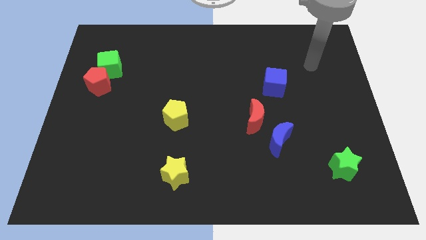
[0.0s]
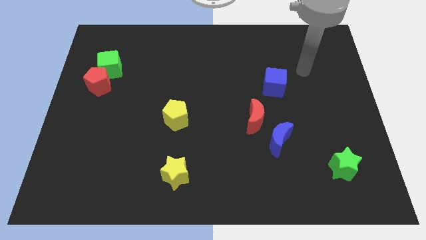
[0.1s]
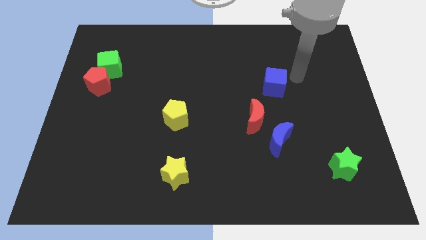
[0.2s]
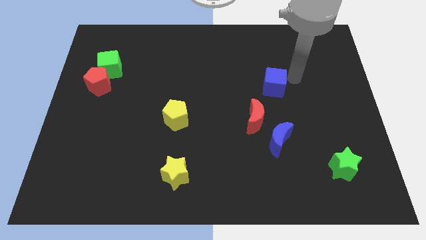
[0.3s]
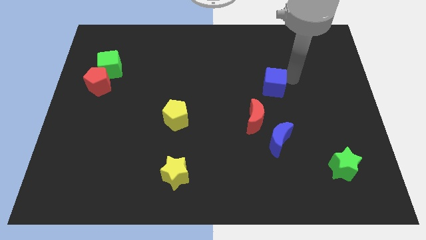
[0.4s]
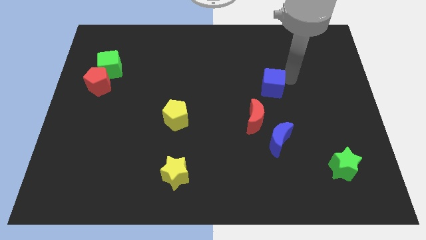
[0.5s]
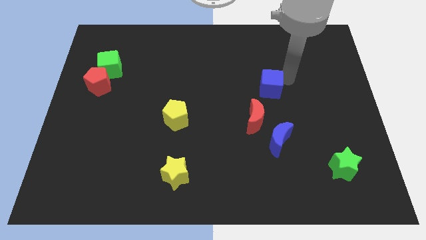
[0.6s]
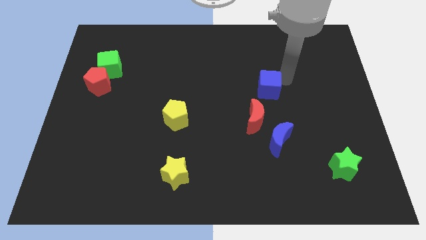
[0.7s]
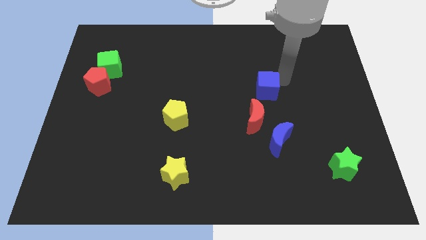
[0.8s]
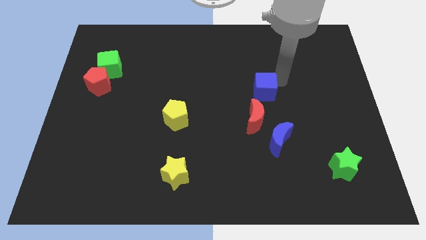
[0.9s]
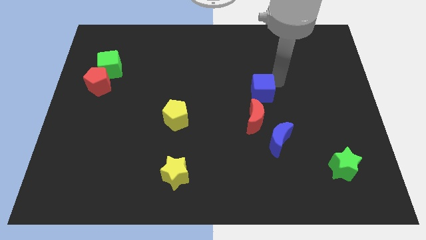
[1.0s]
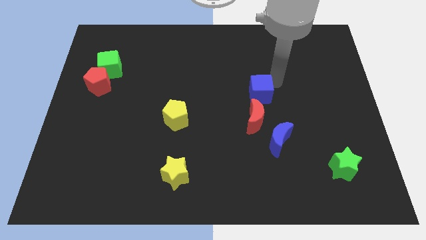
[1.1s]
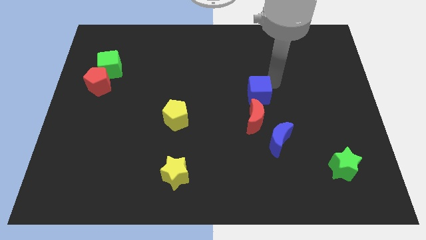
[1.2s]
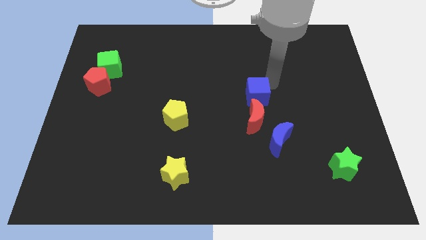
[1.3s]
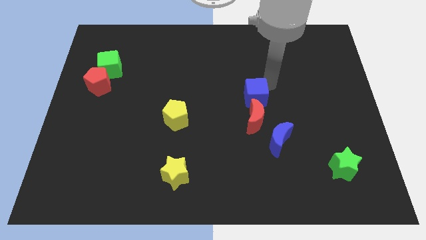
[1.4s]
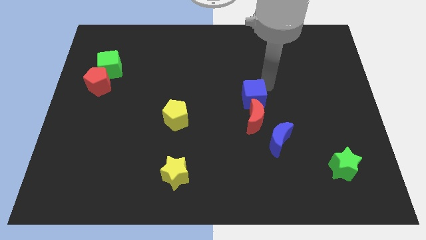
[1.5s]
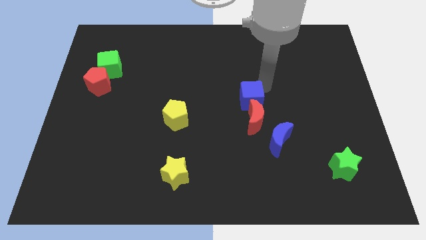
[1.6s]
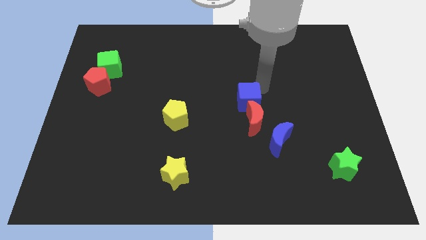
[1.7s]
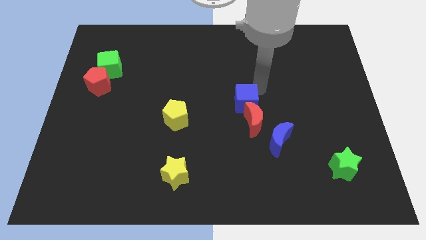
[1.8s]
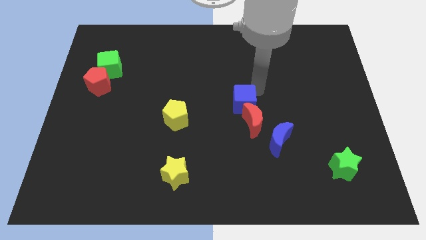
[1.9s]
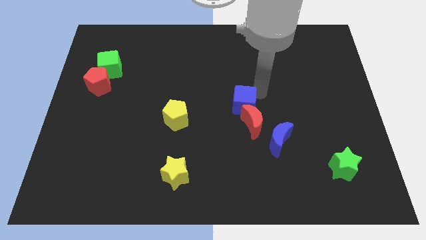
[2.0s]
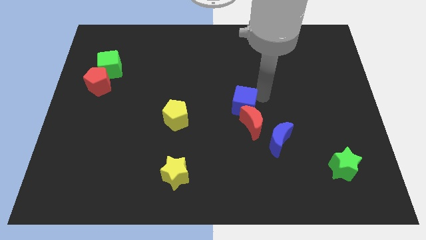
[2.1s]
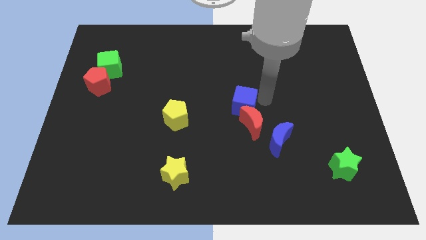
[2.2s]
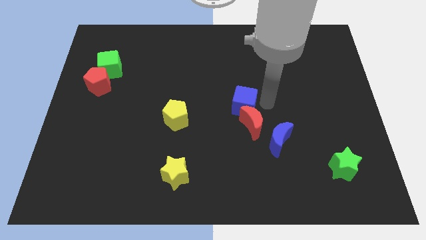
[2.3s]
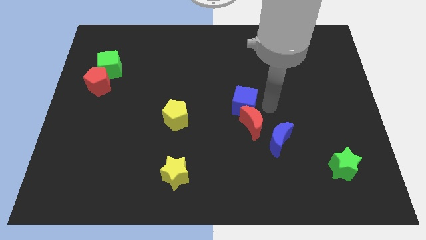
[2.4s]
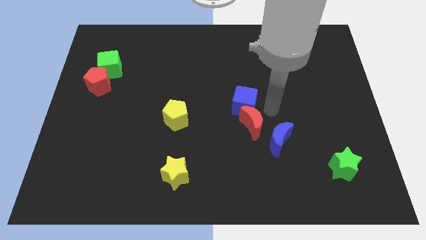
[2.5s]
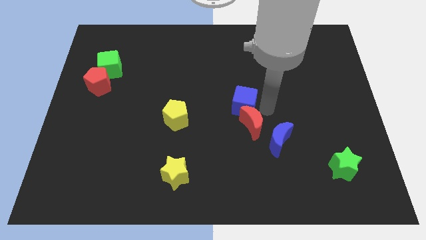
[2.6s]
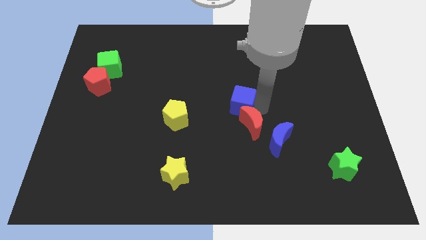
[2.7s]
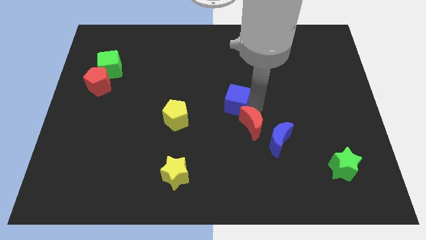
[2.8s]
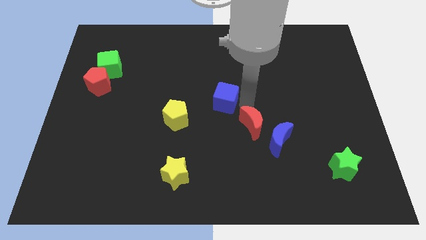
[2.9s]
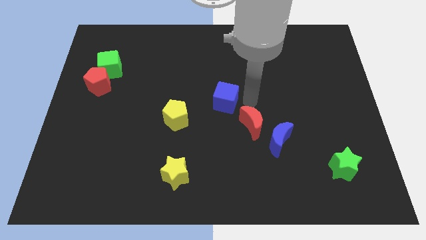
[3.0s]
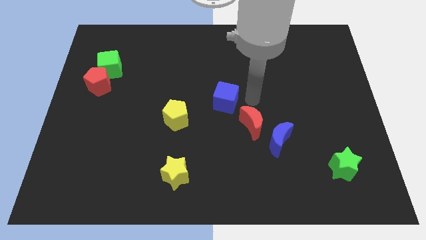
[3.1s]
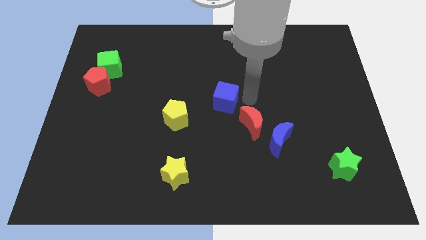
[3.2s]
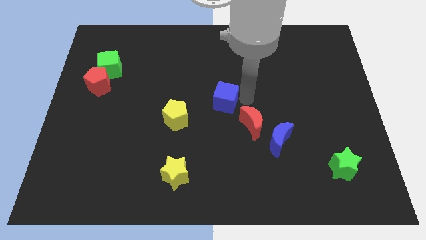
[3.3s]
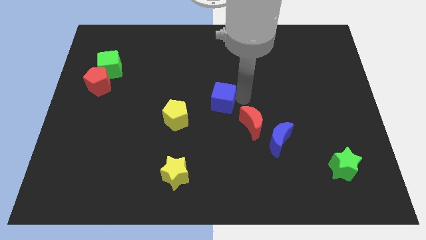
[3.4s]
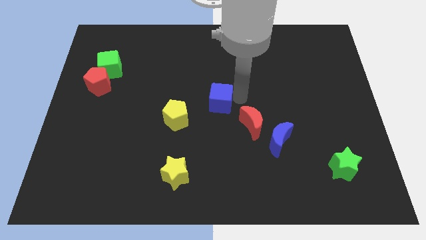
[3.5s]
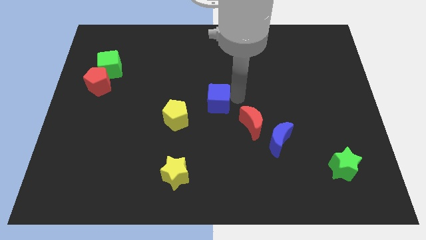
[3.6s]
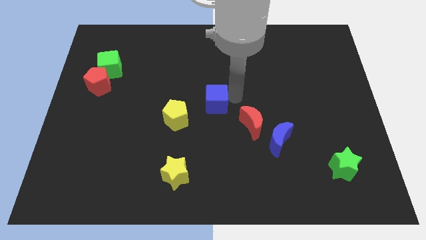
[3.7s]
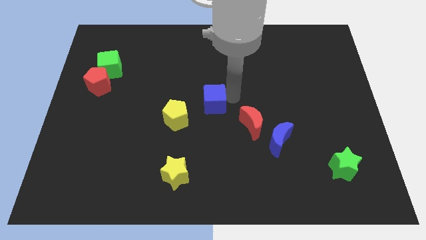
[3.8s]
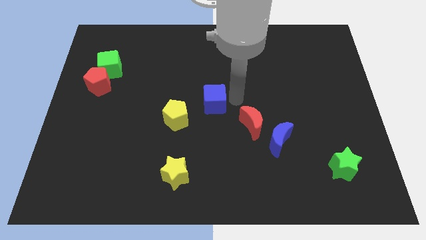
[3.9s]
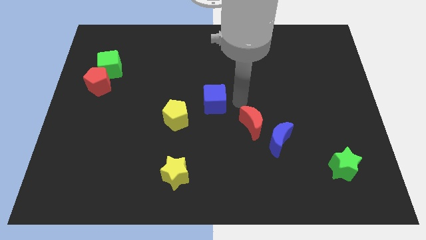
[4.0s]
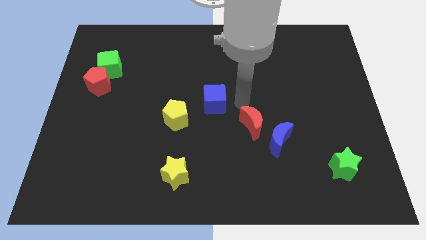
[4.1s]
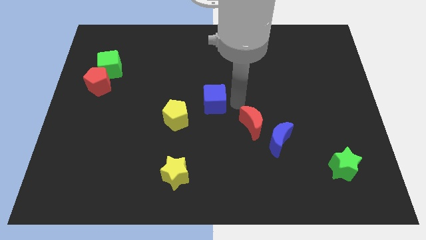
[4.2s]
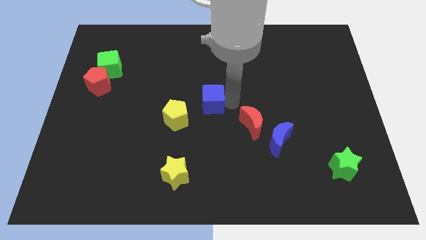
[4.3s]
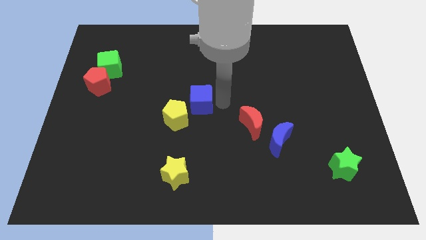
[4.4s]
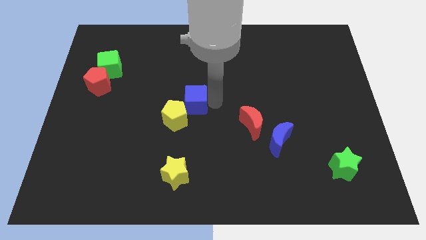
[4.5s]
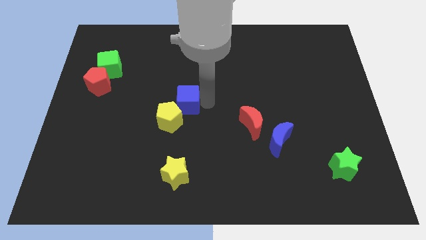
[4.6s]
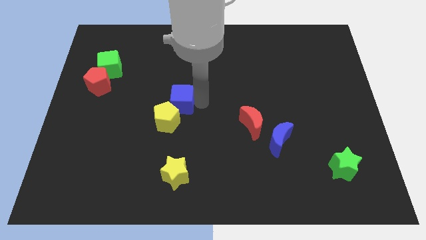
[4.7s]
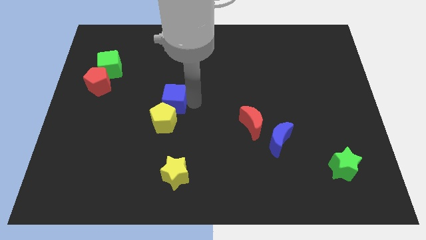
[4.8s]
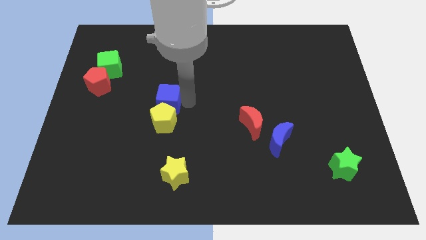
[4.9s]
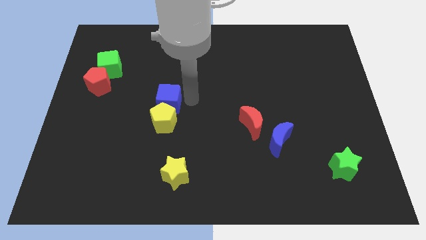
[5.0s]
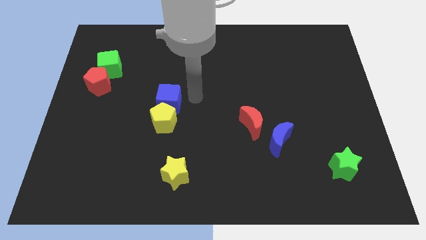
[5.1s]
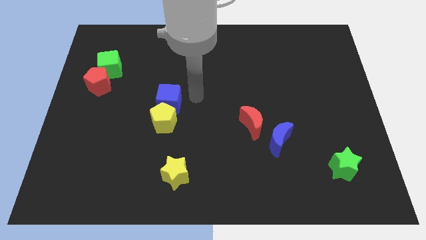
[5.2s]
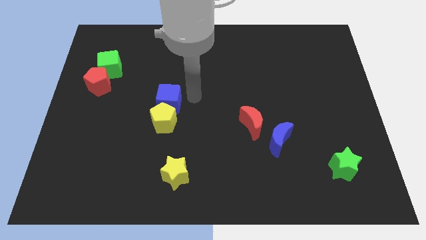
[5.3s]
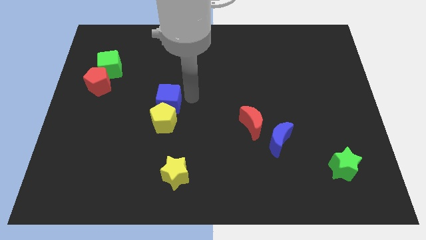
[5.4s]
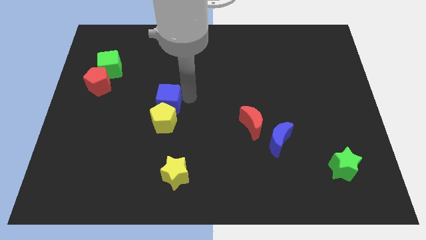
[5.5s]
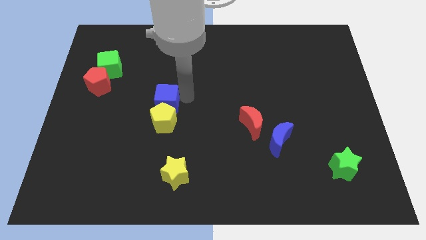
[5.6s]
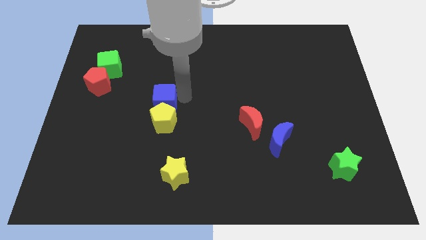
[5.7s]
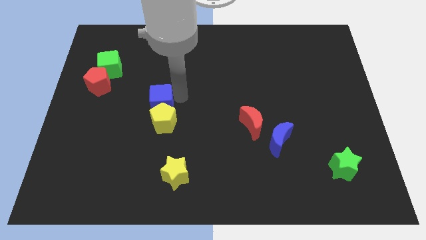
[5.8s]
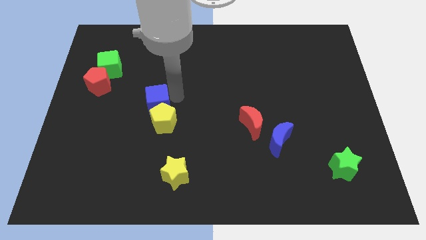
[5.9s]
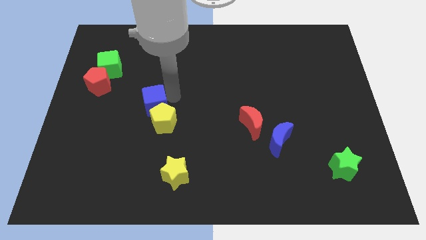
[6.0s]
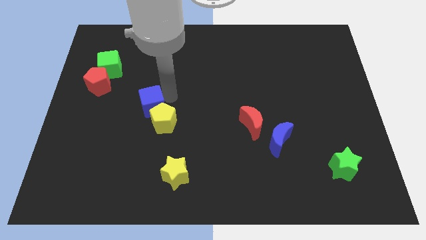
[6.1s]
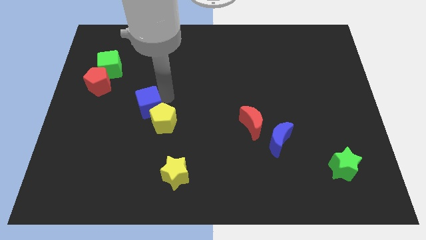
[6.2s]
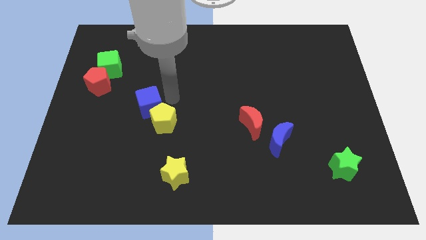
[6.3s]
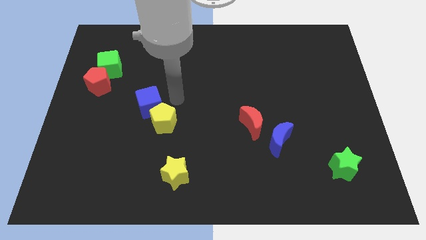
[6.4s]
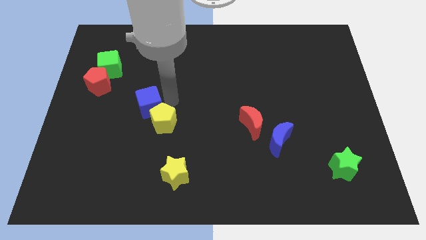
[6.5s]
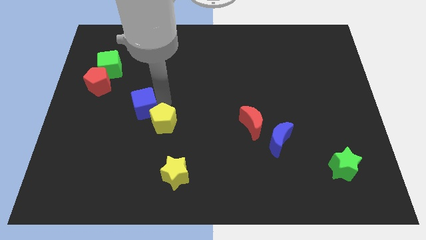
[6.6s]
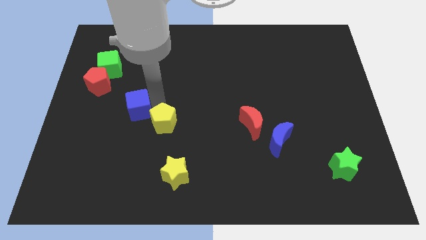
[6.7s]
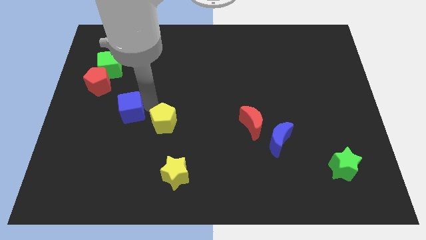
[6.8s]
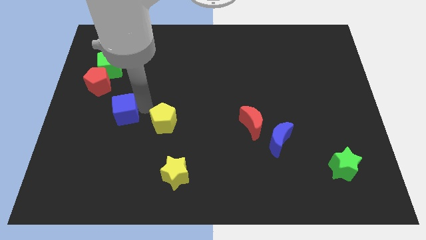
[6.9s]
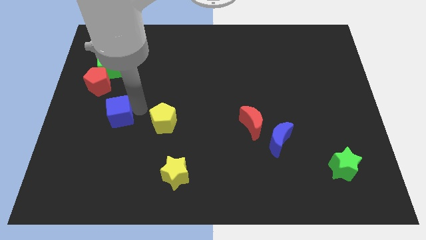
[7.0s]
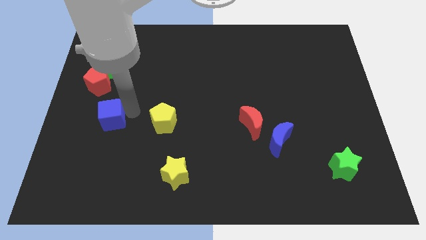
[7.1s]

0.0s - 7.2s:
slide the blue cube below the red pentagon
